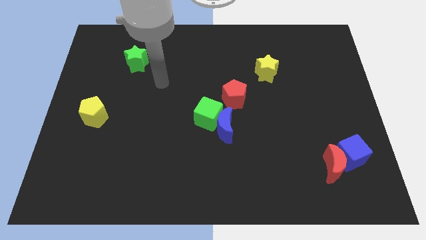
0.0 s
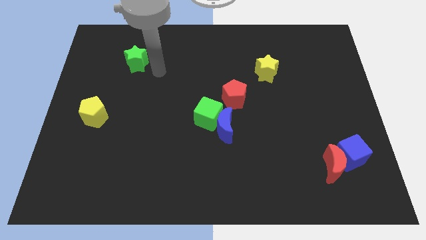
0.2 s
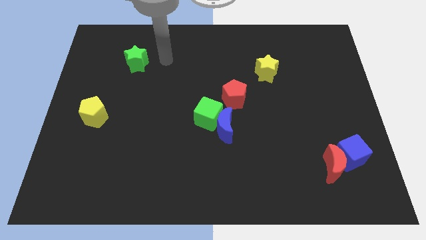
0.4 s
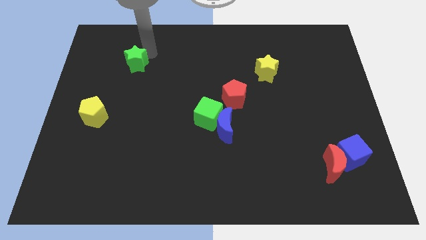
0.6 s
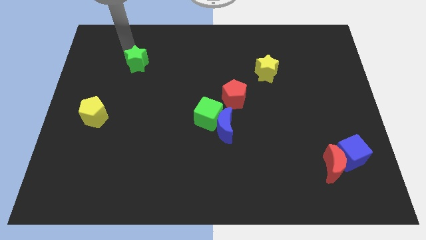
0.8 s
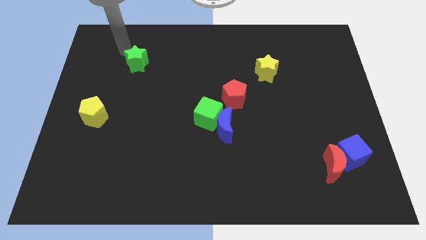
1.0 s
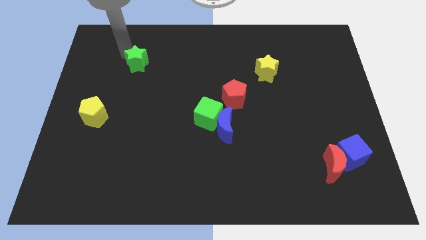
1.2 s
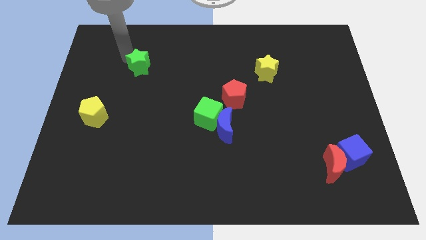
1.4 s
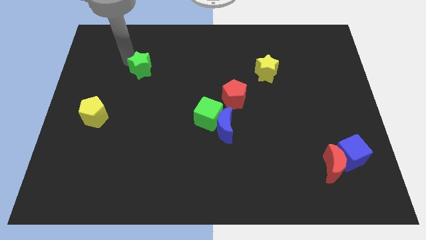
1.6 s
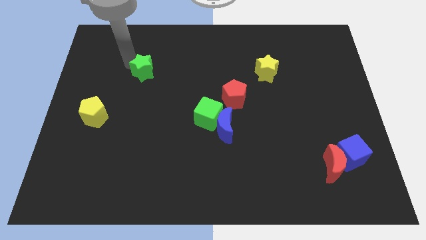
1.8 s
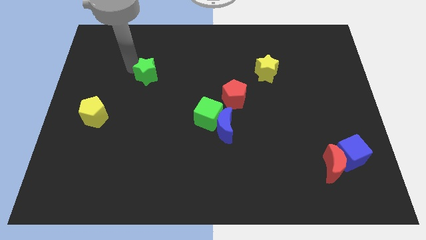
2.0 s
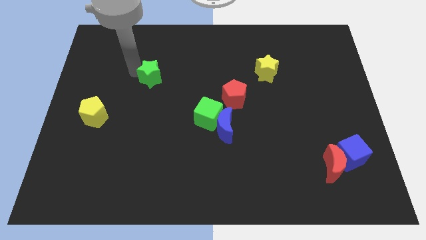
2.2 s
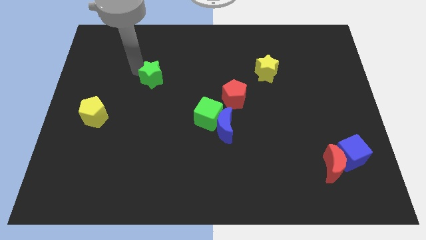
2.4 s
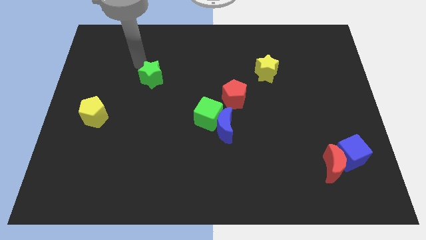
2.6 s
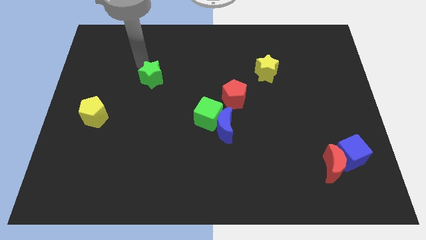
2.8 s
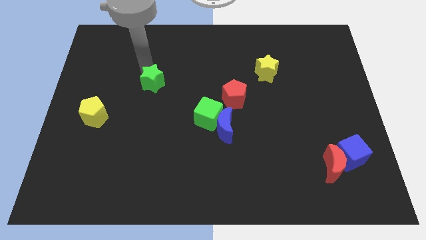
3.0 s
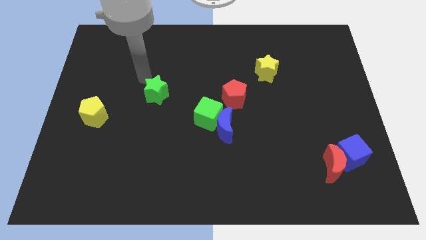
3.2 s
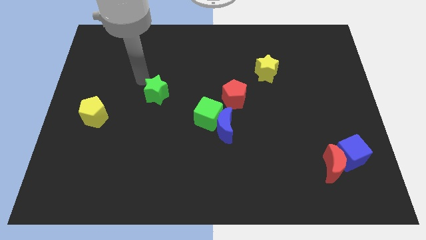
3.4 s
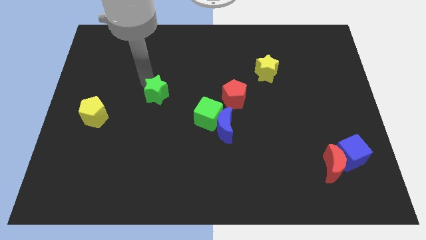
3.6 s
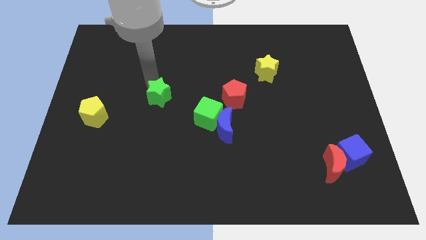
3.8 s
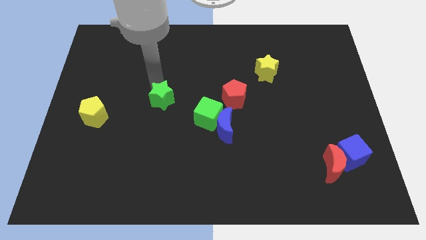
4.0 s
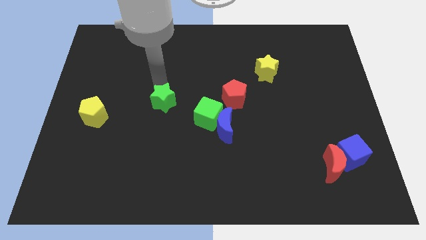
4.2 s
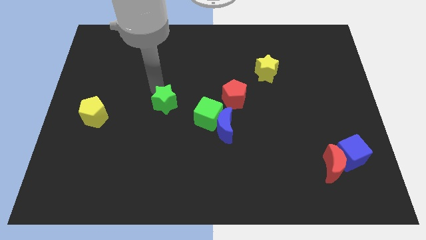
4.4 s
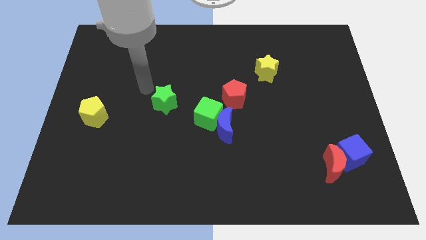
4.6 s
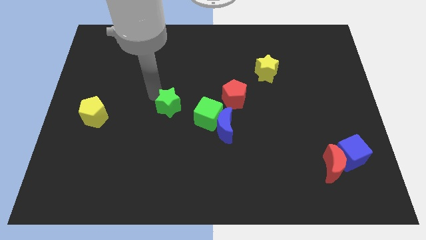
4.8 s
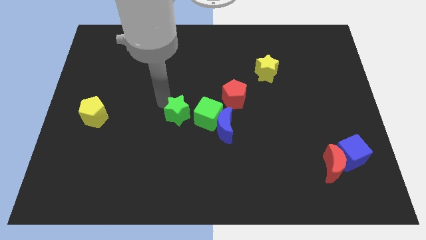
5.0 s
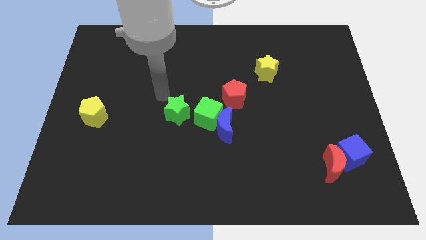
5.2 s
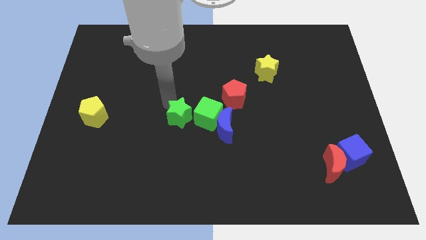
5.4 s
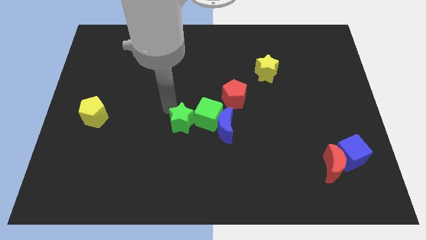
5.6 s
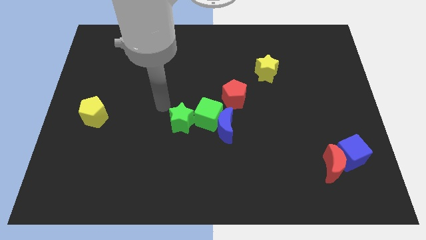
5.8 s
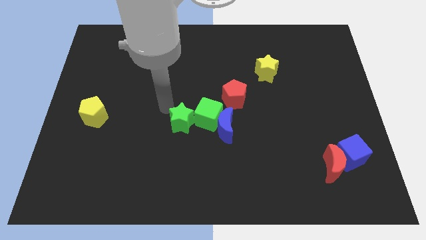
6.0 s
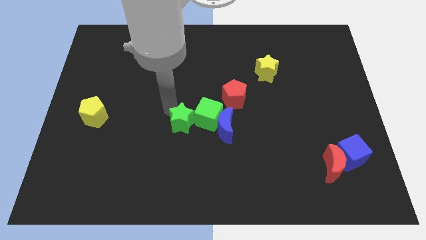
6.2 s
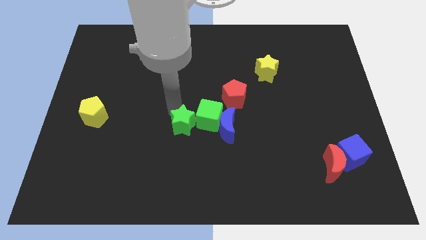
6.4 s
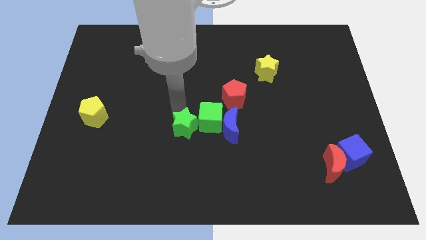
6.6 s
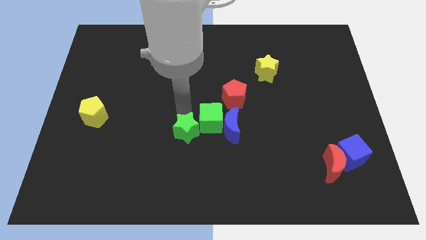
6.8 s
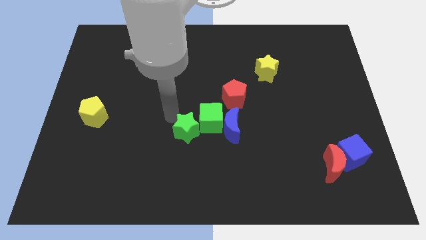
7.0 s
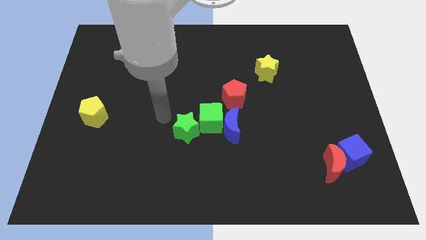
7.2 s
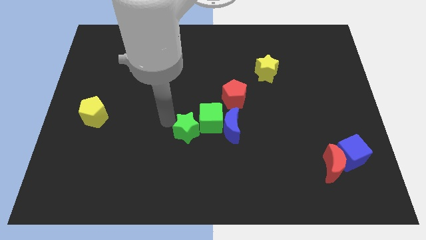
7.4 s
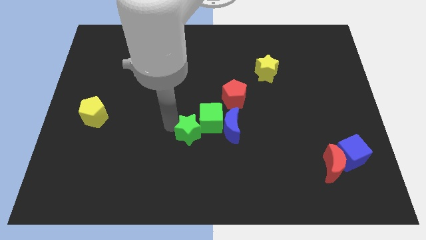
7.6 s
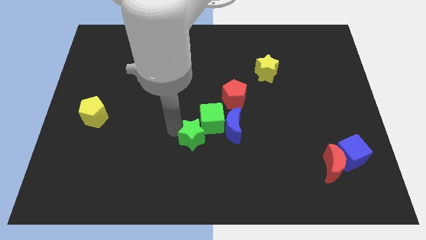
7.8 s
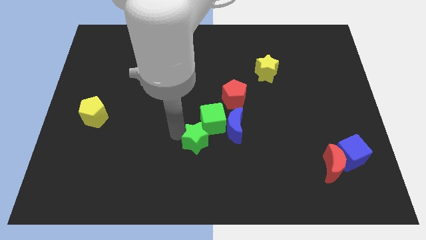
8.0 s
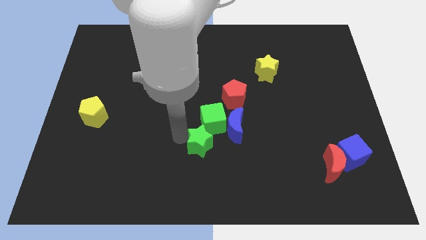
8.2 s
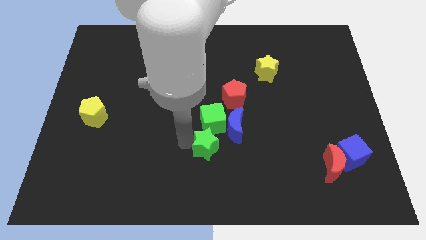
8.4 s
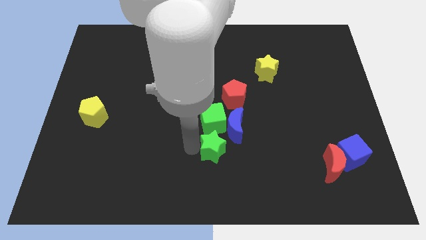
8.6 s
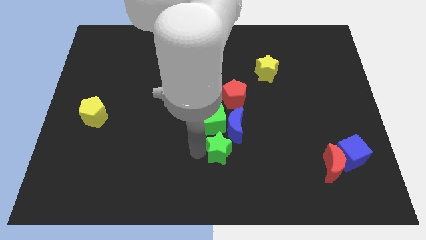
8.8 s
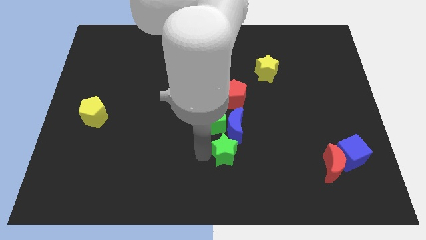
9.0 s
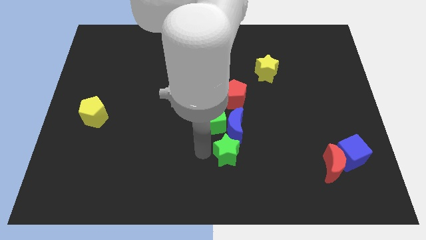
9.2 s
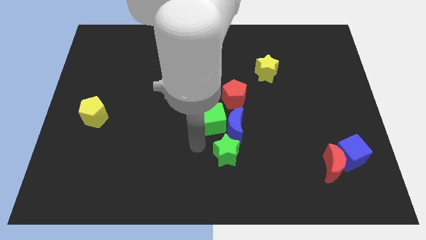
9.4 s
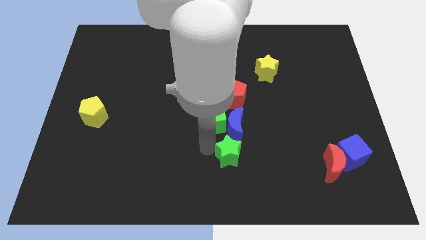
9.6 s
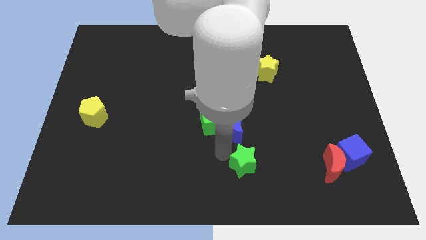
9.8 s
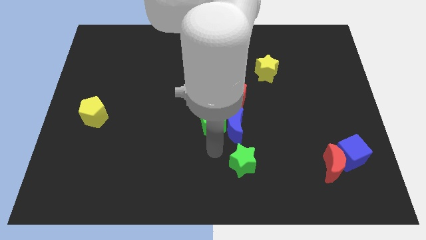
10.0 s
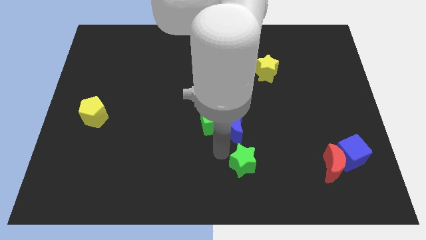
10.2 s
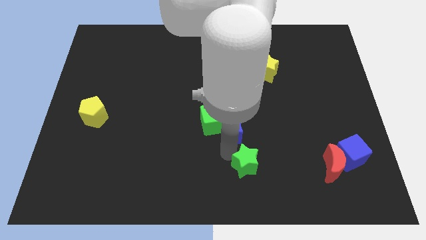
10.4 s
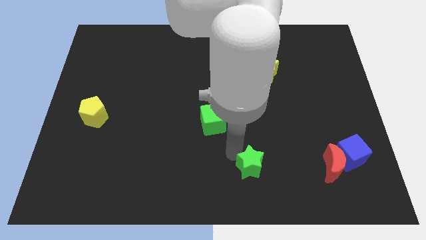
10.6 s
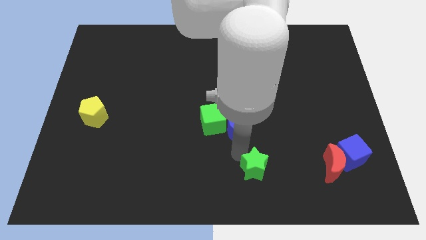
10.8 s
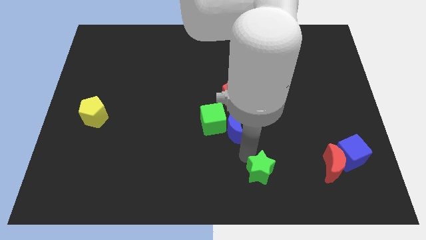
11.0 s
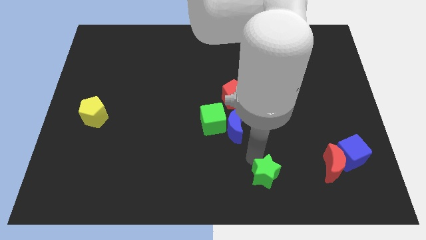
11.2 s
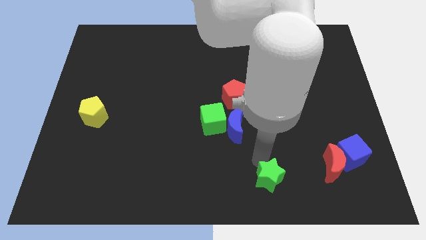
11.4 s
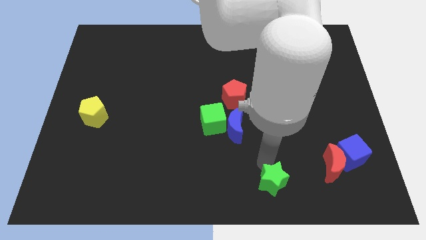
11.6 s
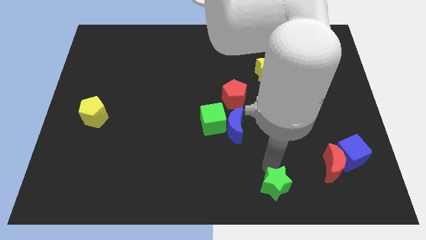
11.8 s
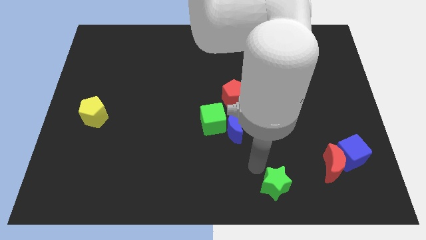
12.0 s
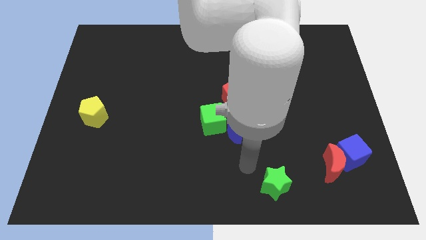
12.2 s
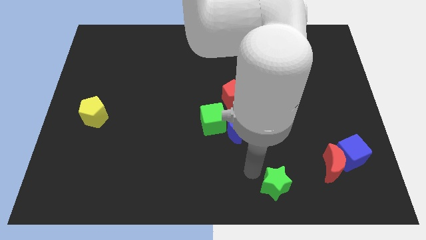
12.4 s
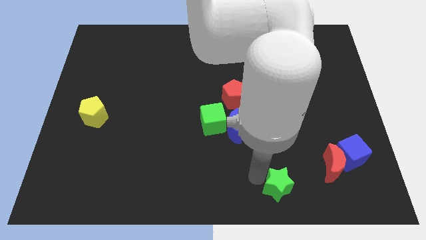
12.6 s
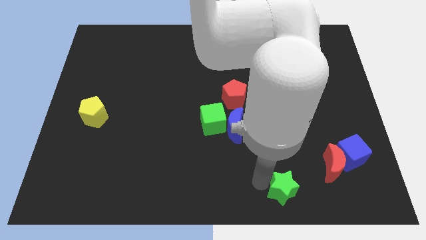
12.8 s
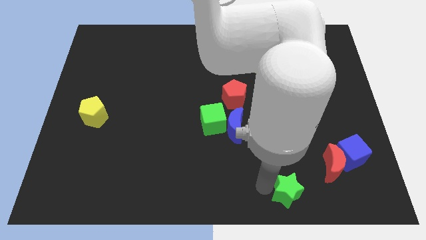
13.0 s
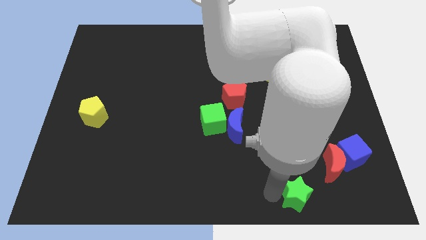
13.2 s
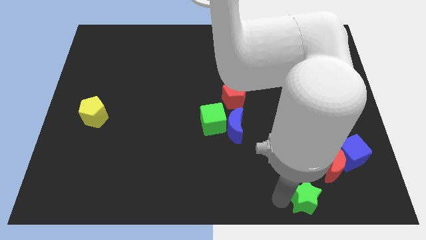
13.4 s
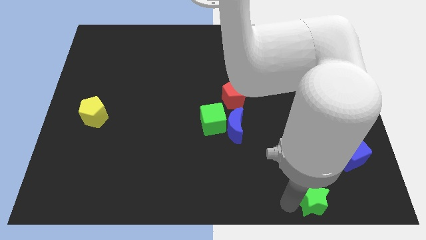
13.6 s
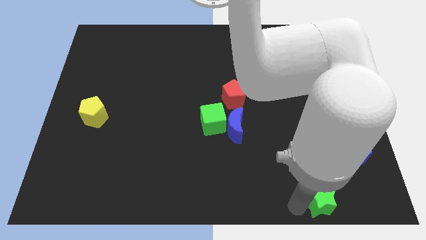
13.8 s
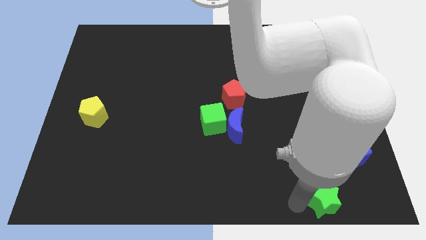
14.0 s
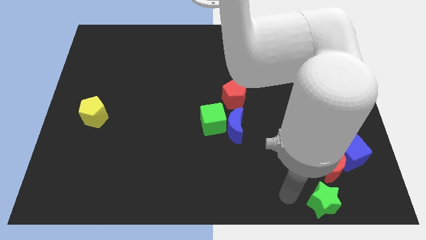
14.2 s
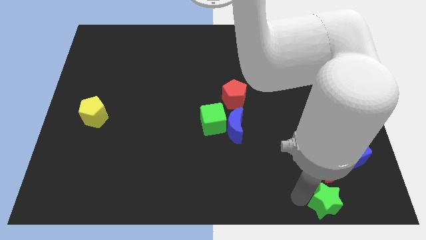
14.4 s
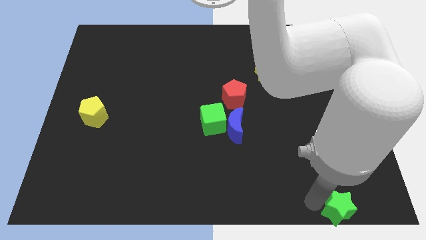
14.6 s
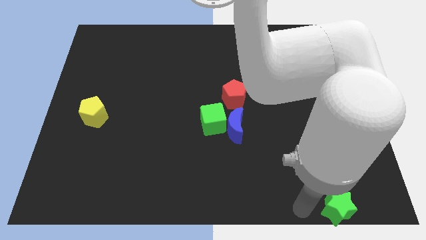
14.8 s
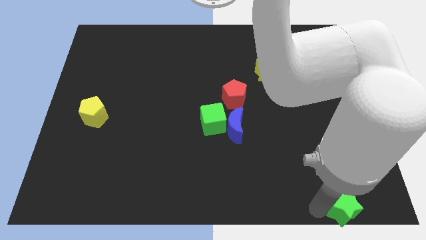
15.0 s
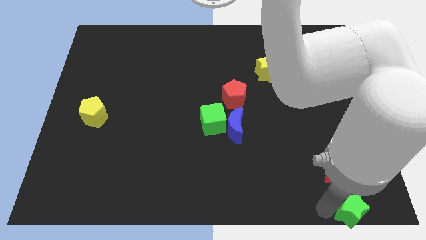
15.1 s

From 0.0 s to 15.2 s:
put the green star to the bottom right
